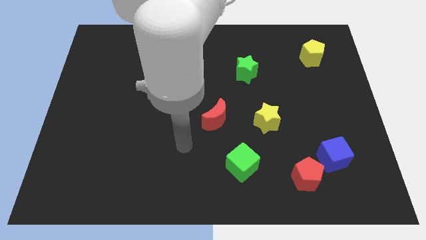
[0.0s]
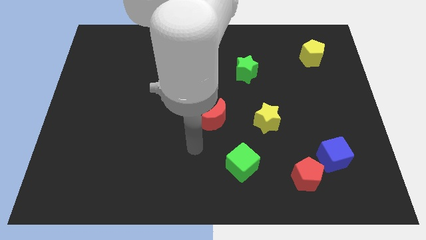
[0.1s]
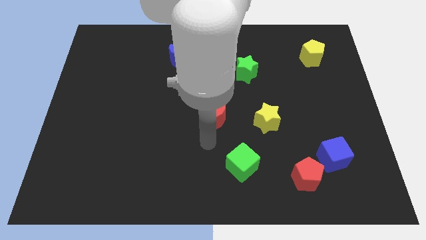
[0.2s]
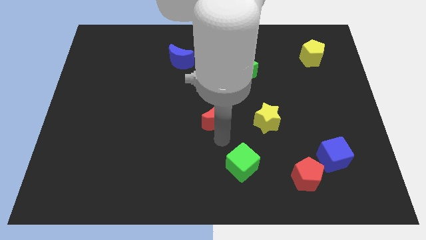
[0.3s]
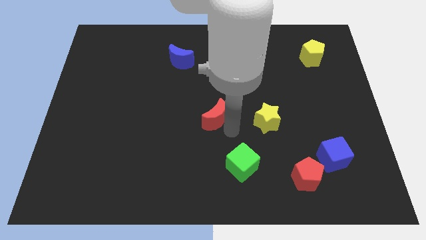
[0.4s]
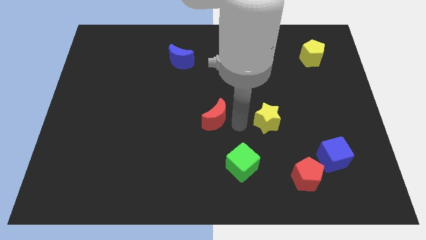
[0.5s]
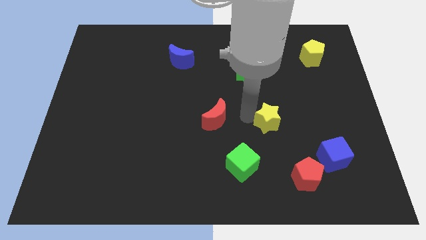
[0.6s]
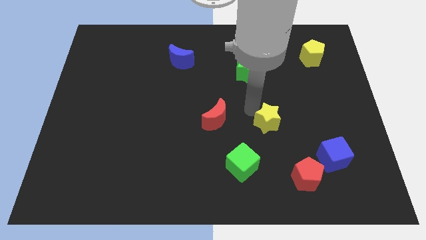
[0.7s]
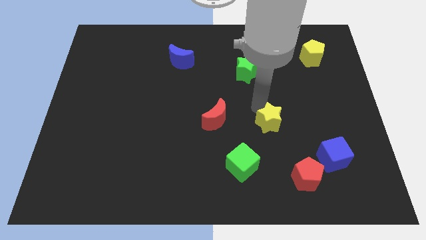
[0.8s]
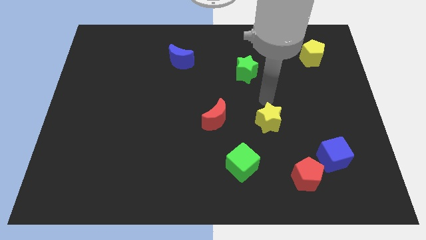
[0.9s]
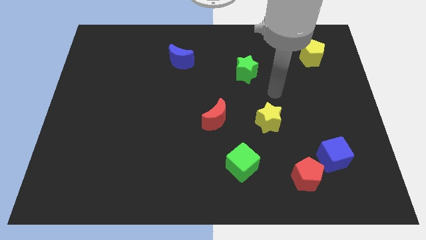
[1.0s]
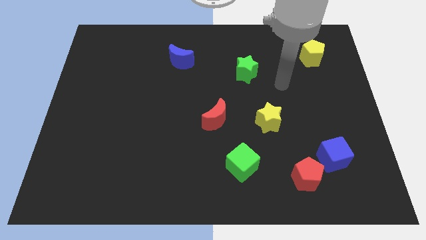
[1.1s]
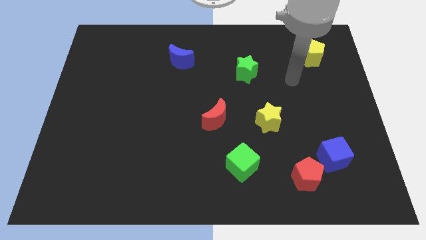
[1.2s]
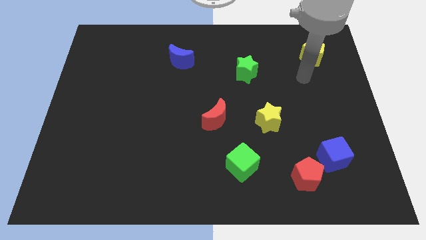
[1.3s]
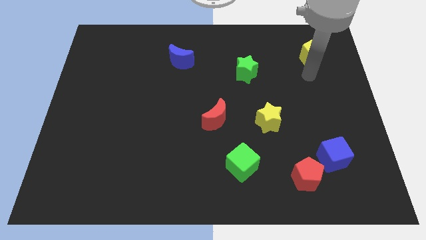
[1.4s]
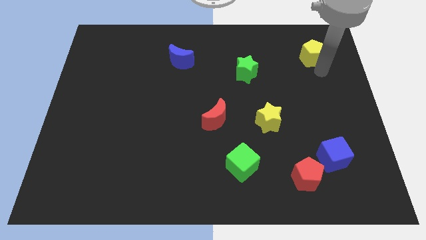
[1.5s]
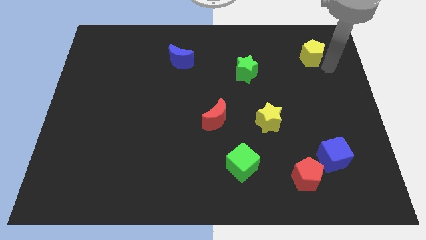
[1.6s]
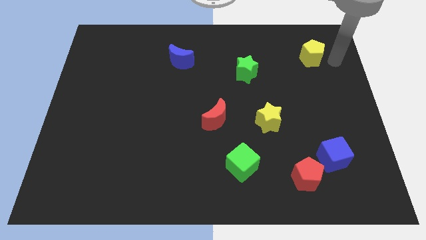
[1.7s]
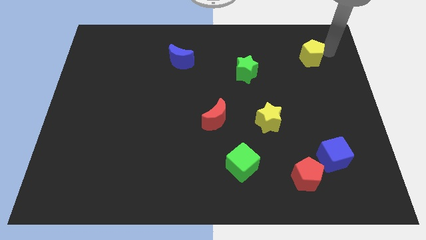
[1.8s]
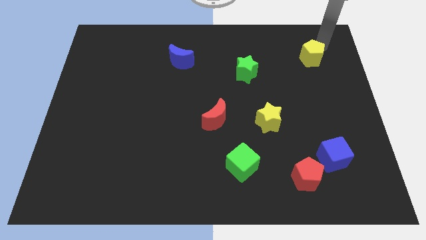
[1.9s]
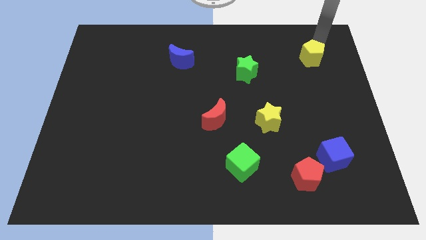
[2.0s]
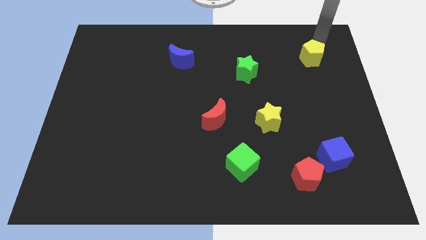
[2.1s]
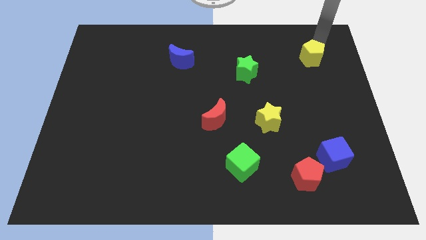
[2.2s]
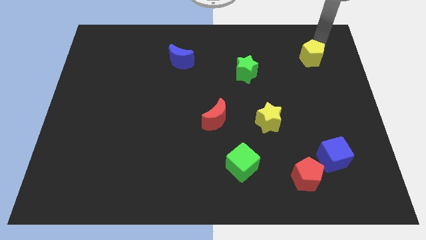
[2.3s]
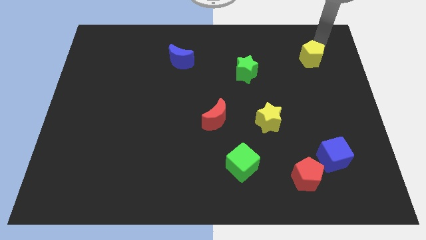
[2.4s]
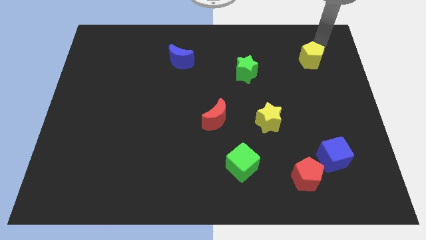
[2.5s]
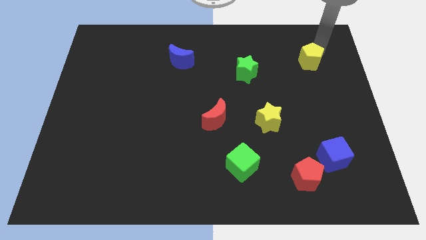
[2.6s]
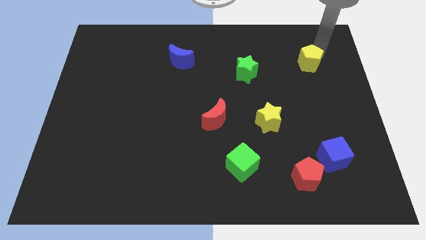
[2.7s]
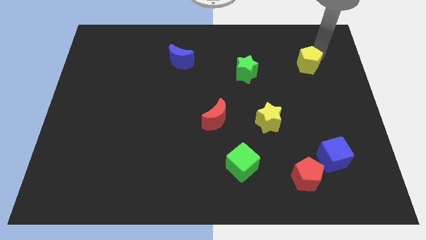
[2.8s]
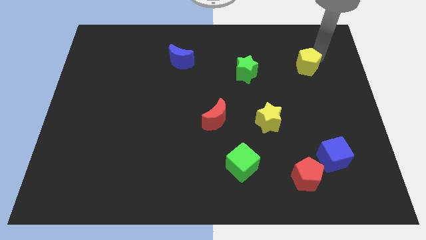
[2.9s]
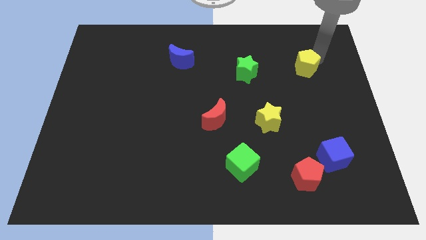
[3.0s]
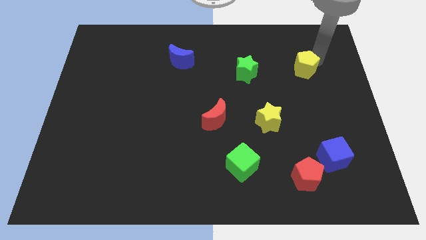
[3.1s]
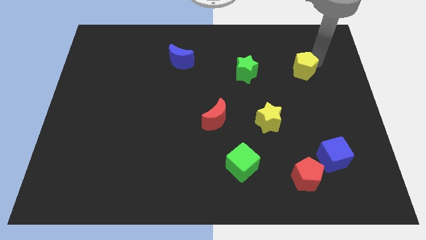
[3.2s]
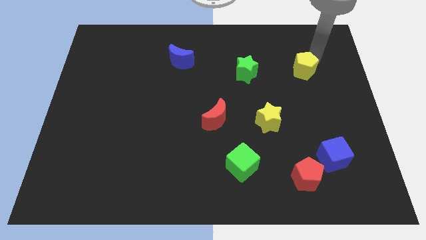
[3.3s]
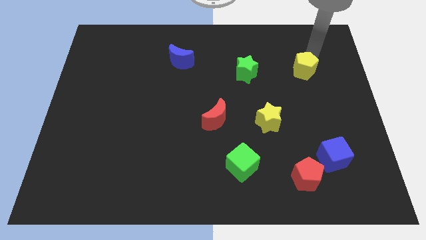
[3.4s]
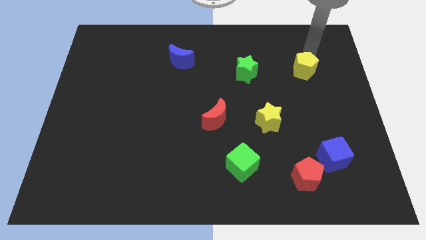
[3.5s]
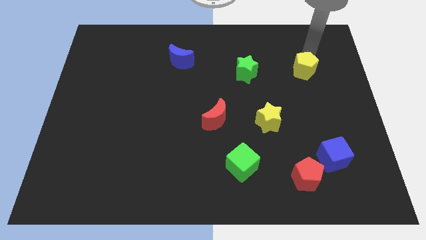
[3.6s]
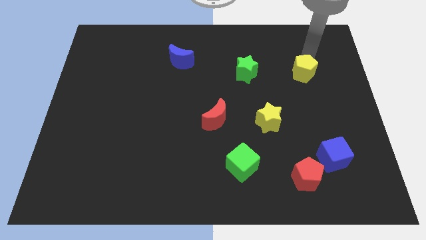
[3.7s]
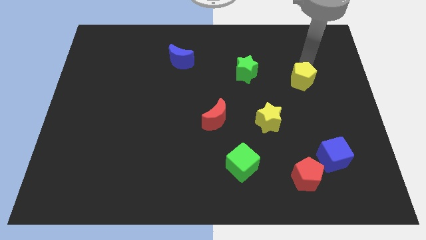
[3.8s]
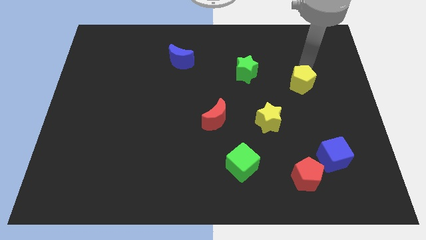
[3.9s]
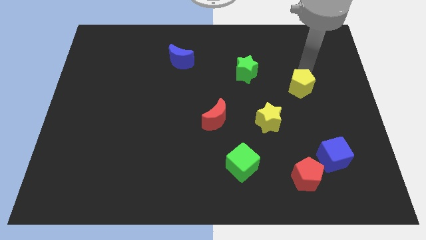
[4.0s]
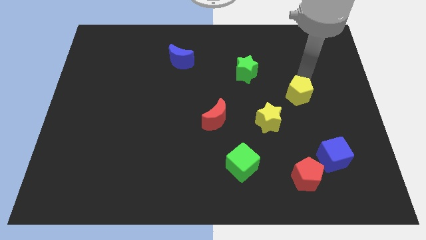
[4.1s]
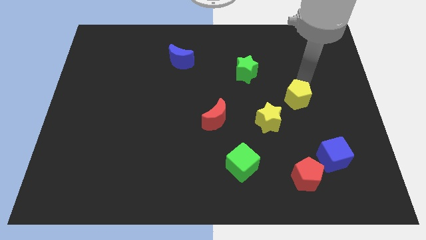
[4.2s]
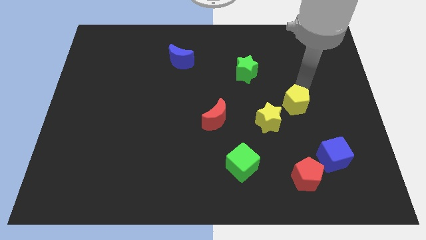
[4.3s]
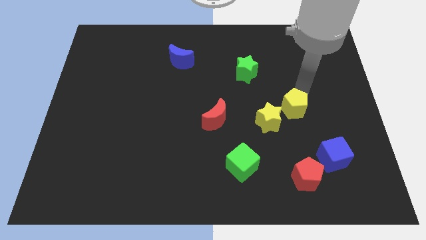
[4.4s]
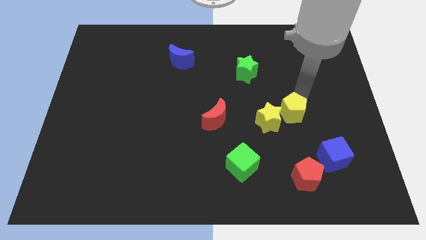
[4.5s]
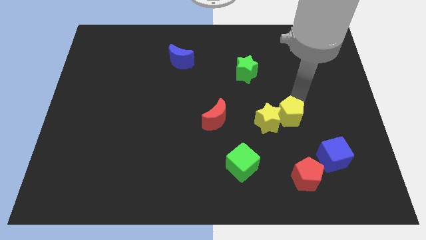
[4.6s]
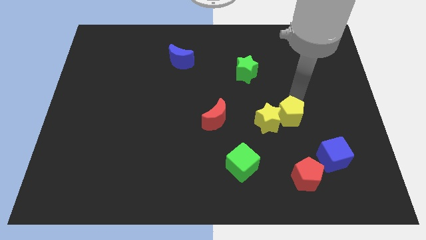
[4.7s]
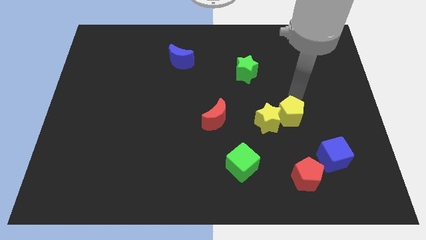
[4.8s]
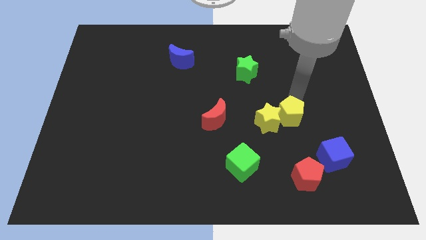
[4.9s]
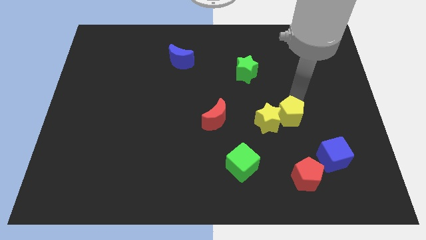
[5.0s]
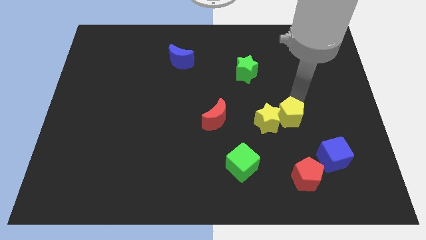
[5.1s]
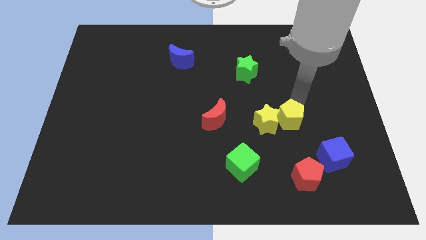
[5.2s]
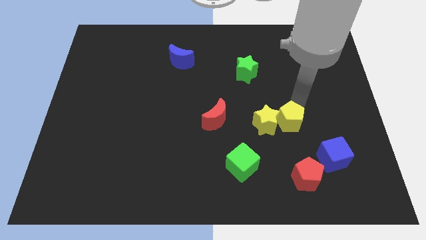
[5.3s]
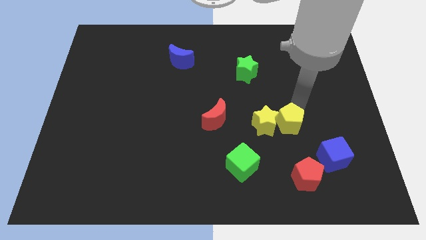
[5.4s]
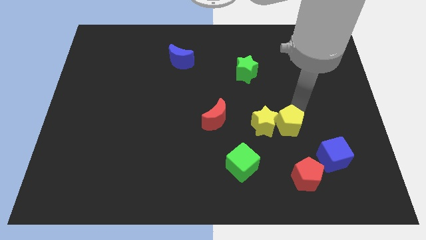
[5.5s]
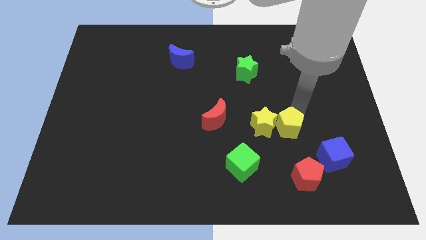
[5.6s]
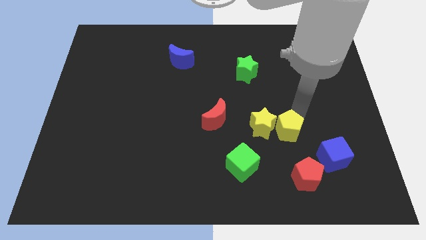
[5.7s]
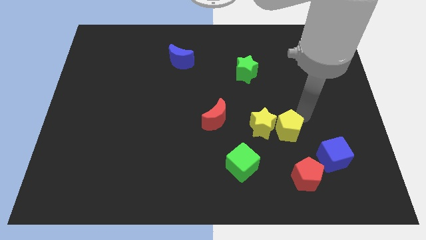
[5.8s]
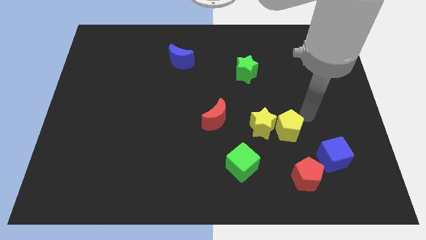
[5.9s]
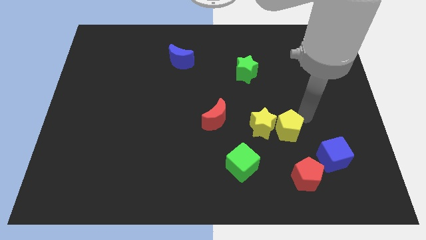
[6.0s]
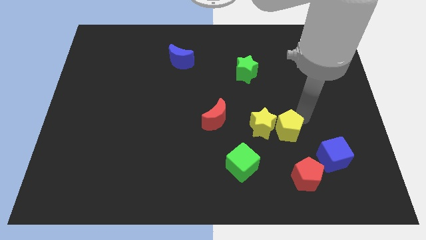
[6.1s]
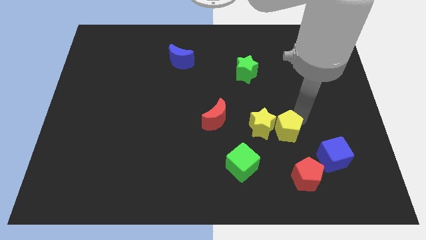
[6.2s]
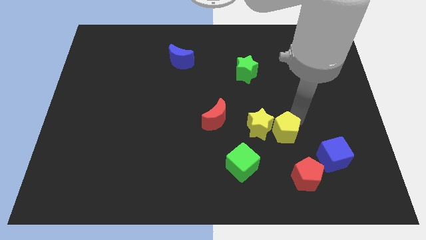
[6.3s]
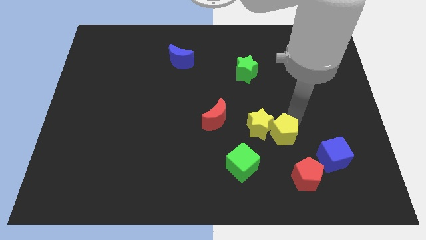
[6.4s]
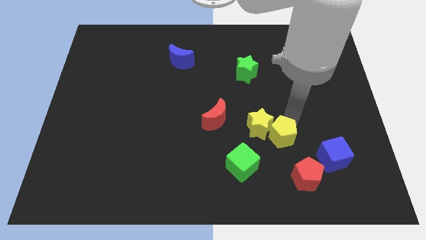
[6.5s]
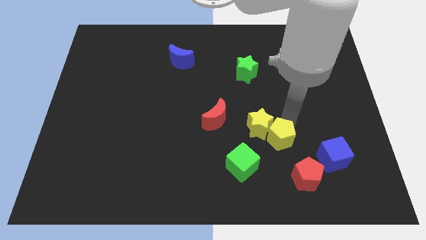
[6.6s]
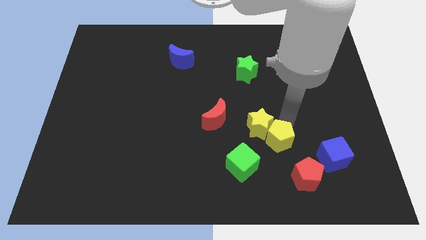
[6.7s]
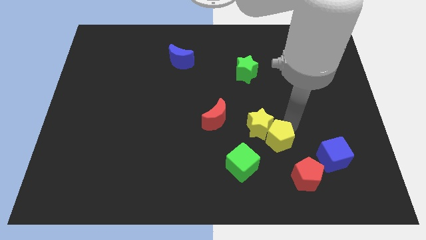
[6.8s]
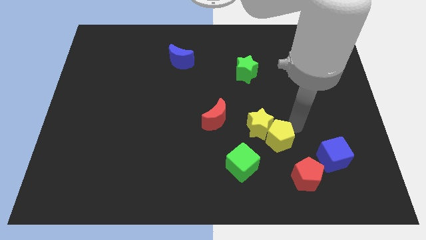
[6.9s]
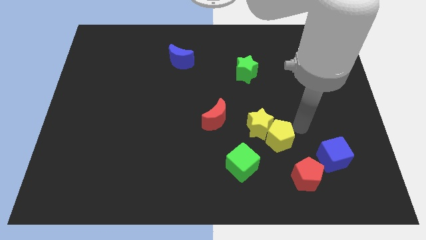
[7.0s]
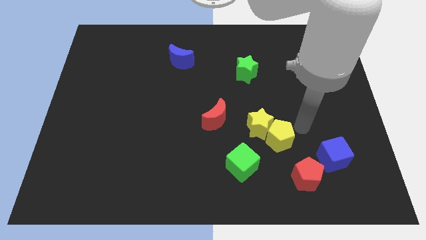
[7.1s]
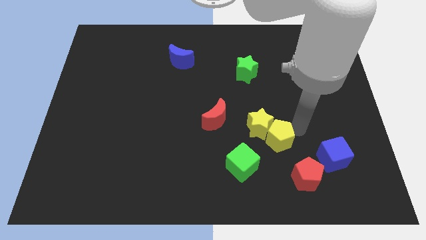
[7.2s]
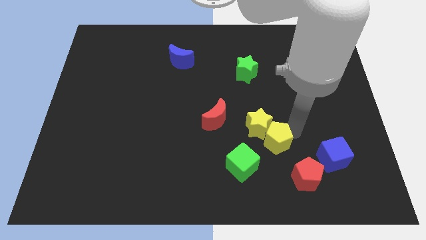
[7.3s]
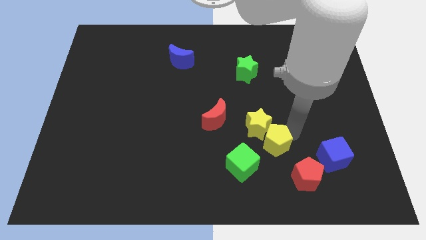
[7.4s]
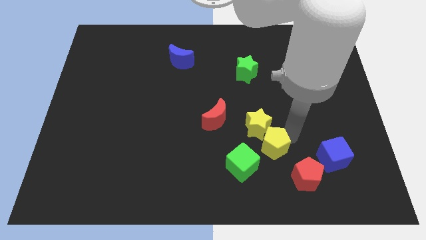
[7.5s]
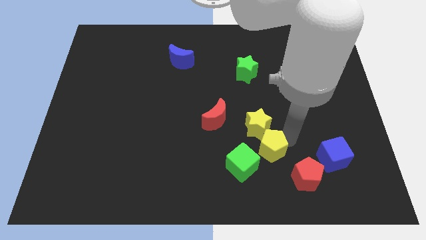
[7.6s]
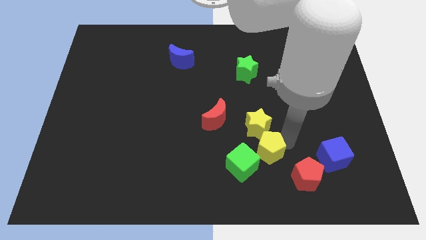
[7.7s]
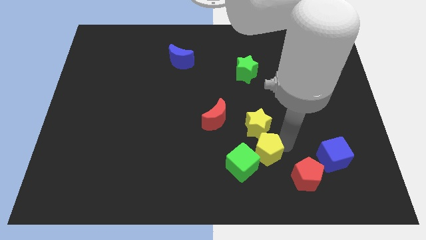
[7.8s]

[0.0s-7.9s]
slide the yellow pentagon close to the green cube
